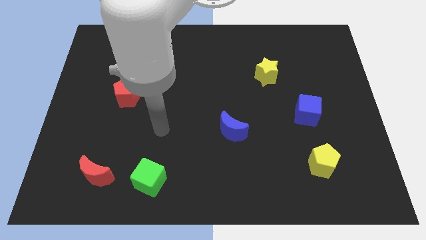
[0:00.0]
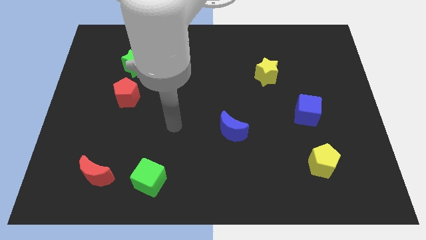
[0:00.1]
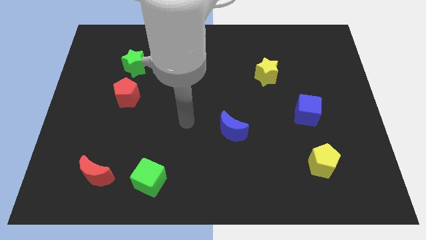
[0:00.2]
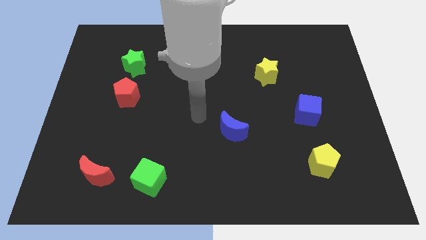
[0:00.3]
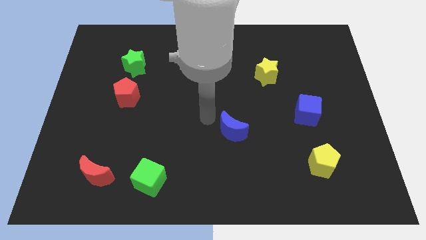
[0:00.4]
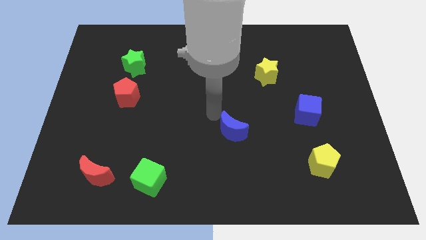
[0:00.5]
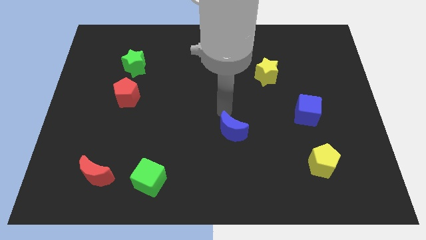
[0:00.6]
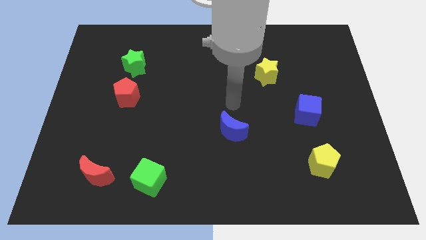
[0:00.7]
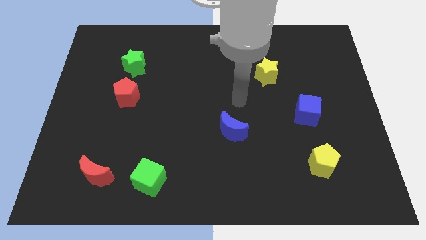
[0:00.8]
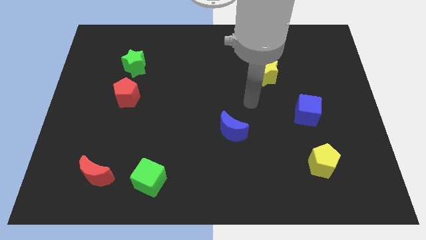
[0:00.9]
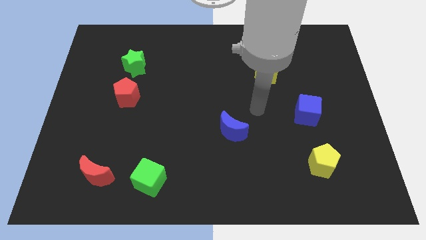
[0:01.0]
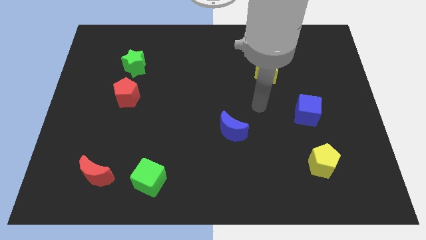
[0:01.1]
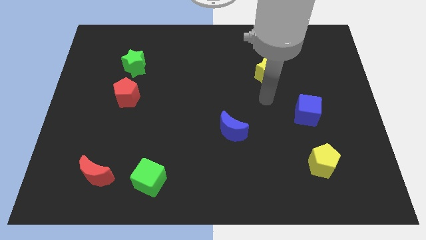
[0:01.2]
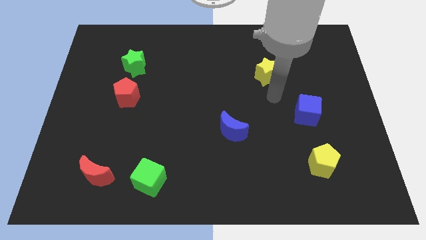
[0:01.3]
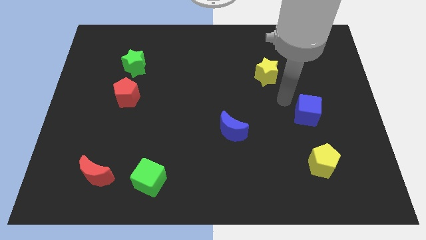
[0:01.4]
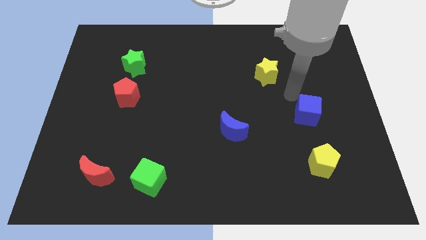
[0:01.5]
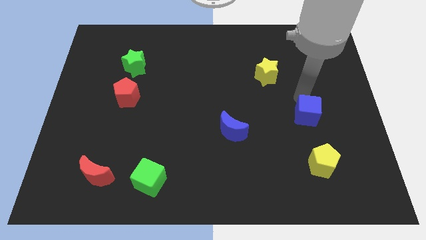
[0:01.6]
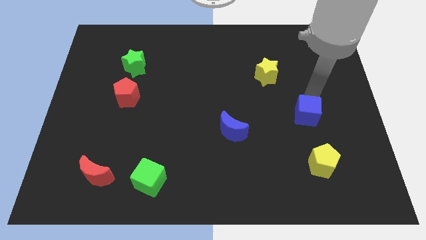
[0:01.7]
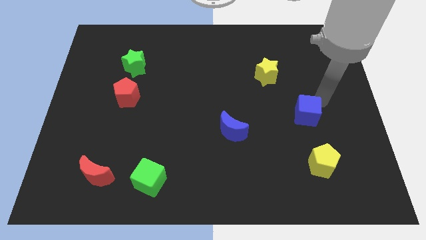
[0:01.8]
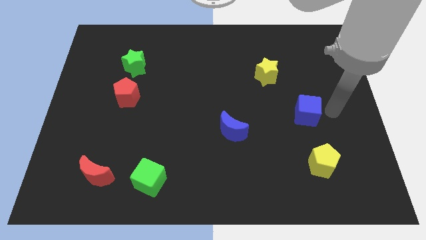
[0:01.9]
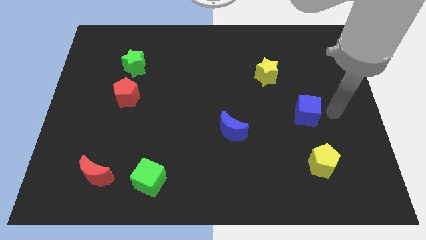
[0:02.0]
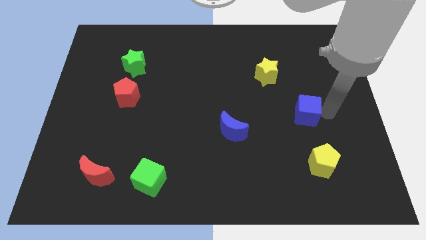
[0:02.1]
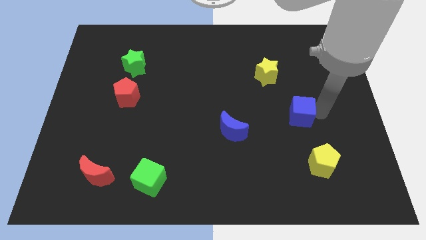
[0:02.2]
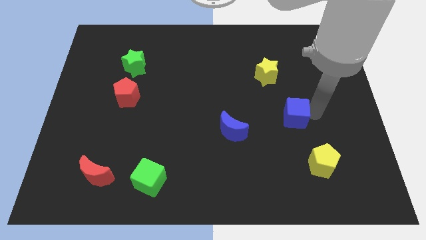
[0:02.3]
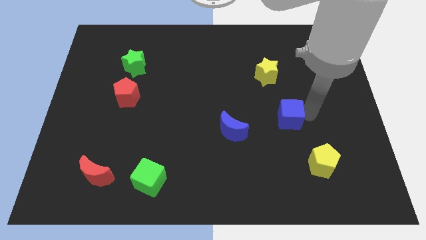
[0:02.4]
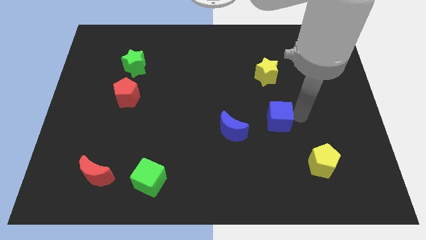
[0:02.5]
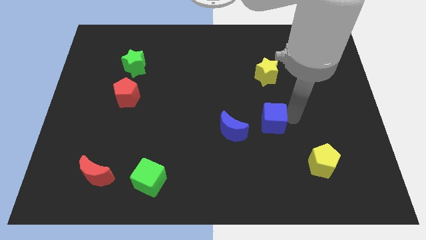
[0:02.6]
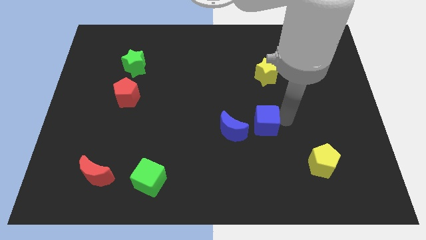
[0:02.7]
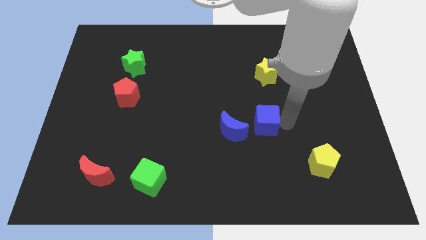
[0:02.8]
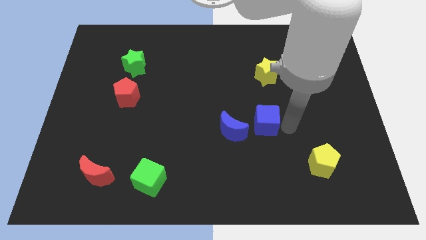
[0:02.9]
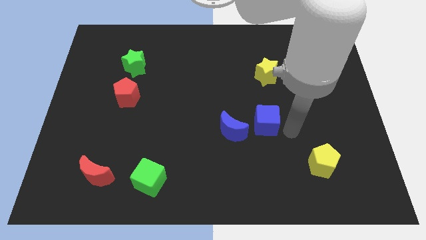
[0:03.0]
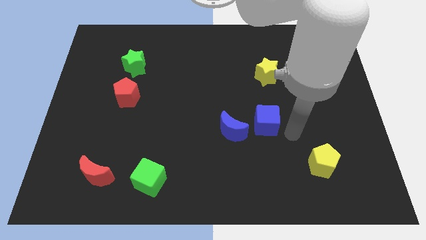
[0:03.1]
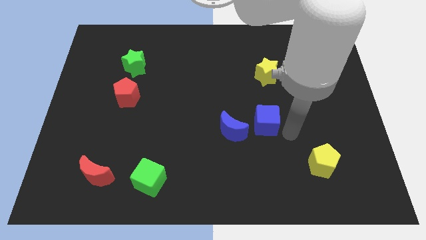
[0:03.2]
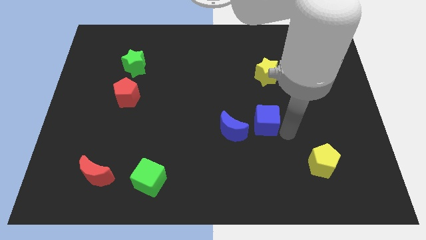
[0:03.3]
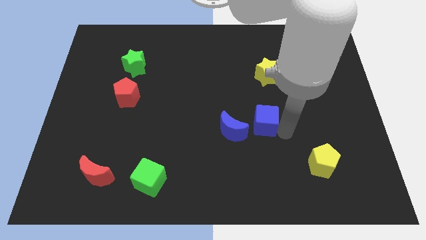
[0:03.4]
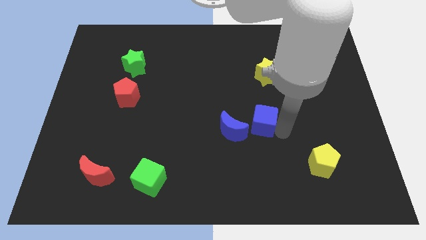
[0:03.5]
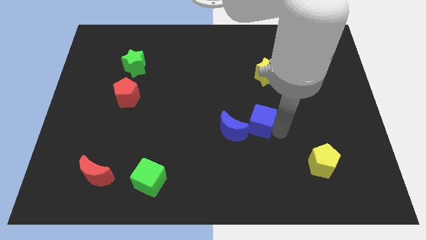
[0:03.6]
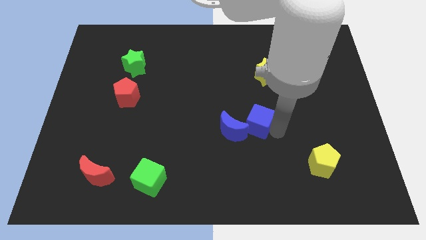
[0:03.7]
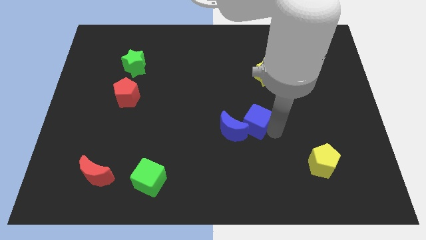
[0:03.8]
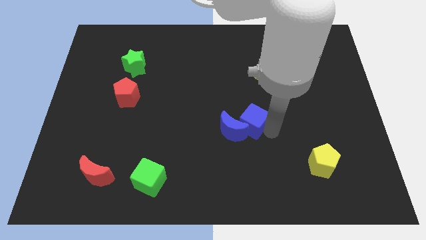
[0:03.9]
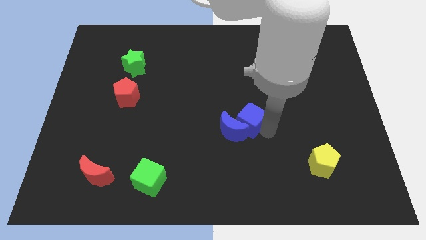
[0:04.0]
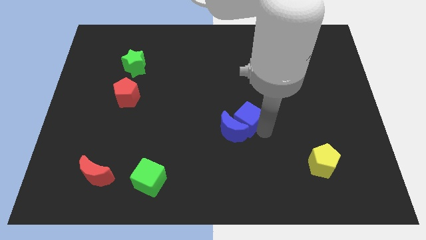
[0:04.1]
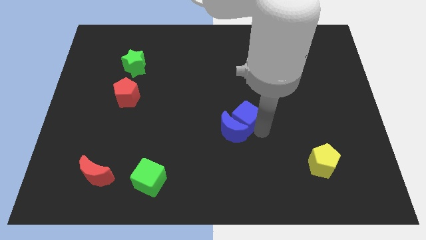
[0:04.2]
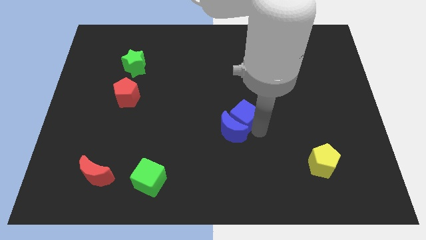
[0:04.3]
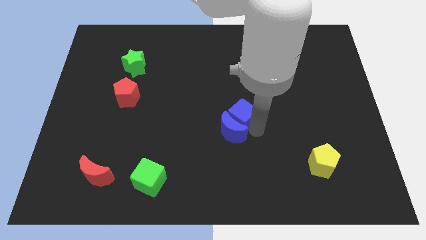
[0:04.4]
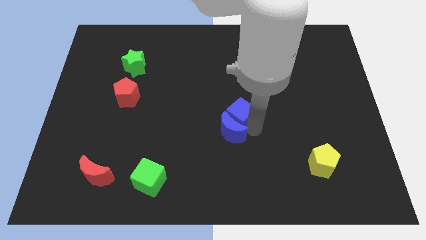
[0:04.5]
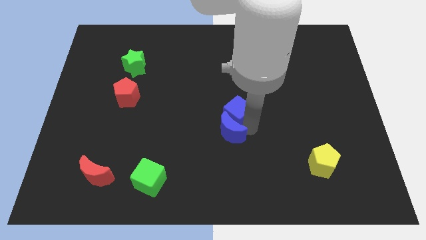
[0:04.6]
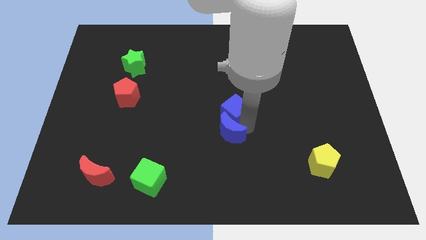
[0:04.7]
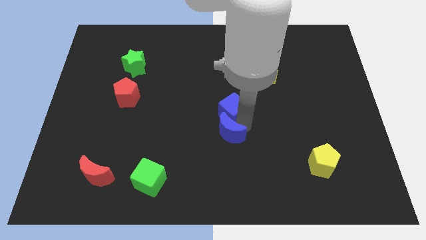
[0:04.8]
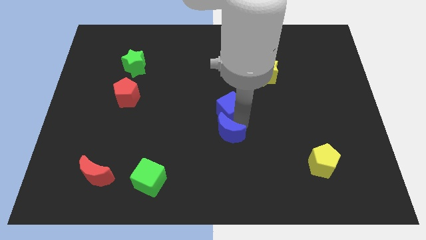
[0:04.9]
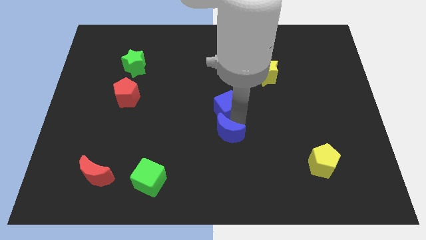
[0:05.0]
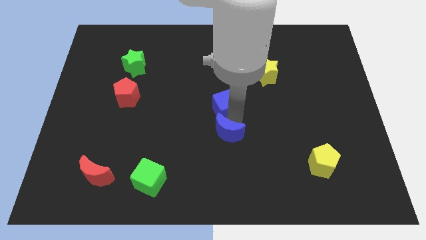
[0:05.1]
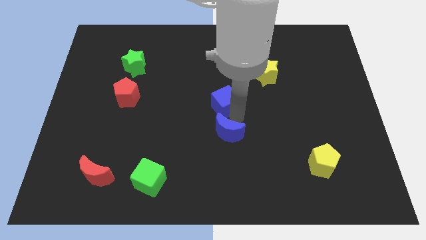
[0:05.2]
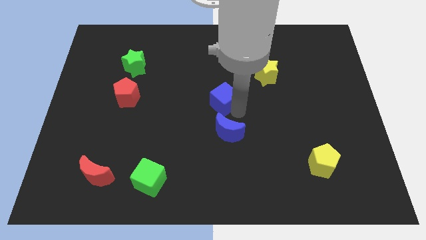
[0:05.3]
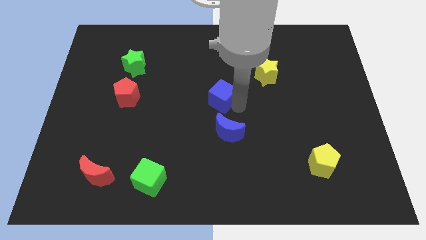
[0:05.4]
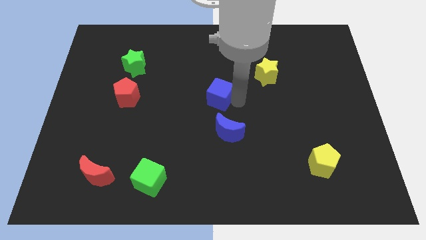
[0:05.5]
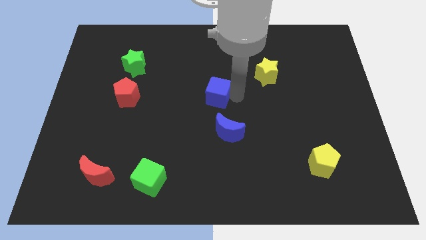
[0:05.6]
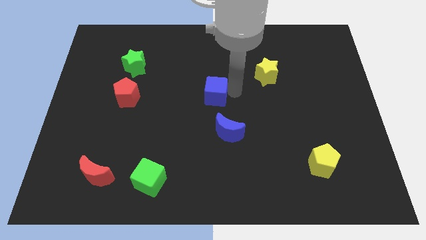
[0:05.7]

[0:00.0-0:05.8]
move the blue cube left

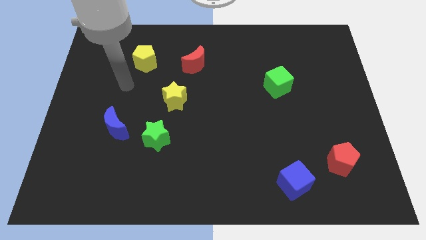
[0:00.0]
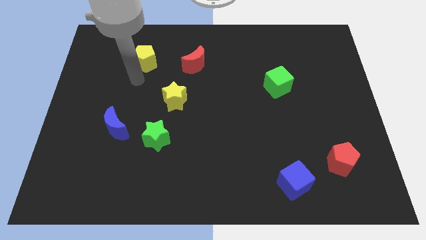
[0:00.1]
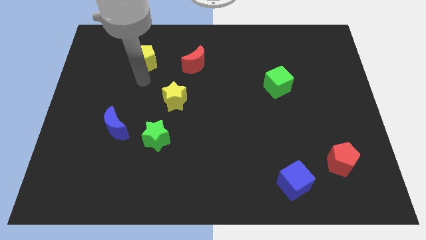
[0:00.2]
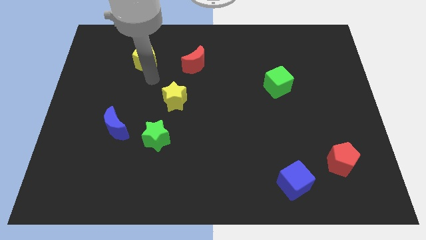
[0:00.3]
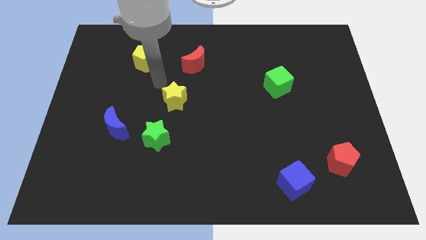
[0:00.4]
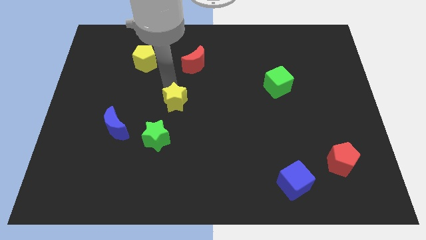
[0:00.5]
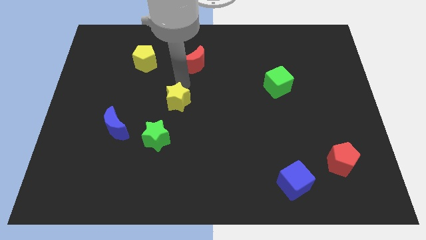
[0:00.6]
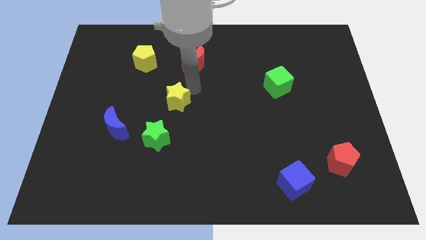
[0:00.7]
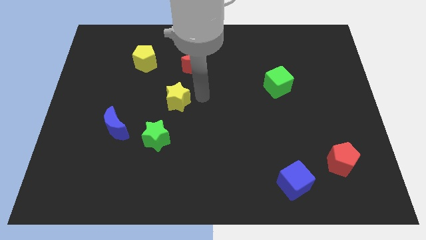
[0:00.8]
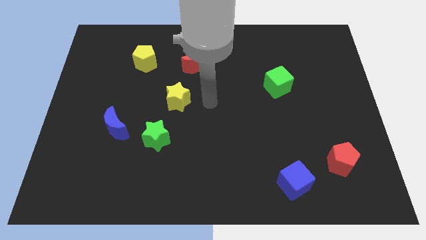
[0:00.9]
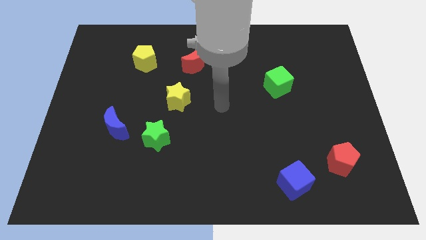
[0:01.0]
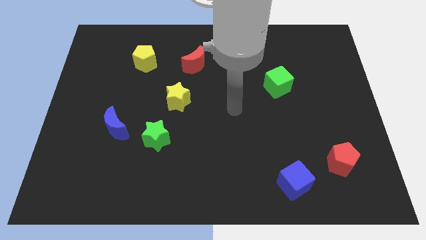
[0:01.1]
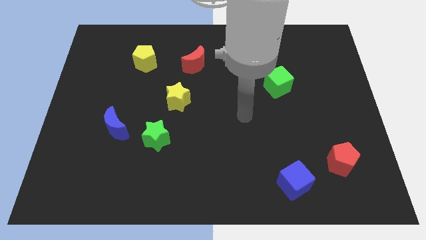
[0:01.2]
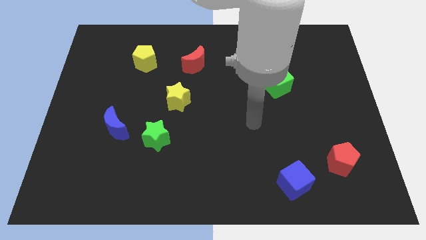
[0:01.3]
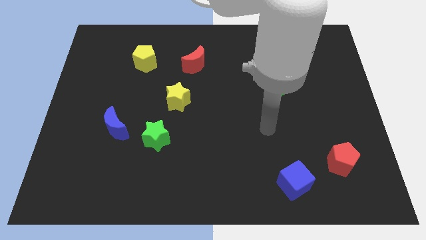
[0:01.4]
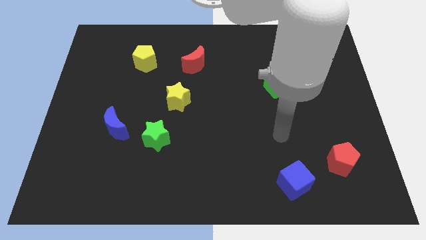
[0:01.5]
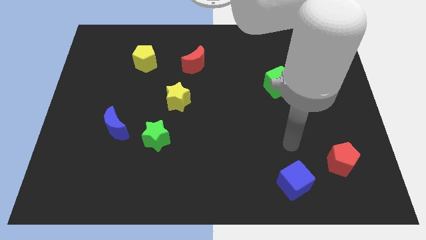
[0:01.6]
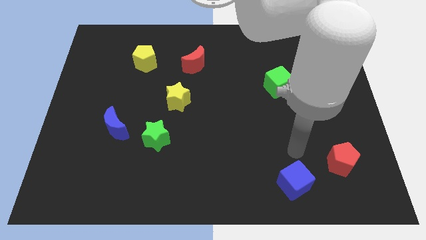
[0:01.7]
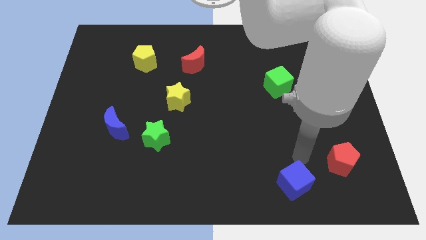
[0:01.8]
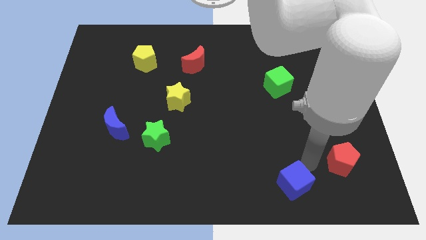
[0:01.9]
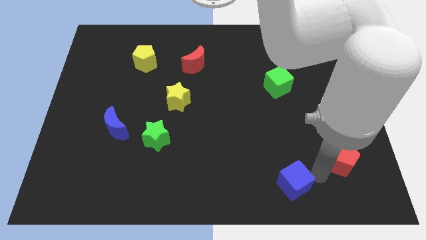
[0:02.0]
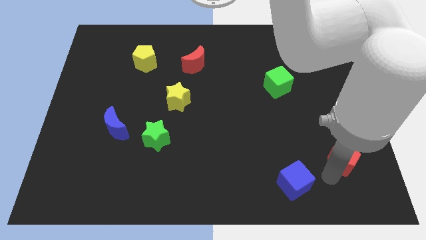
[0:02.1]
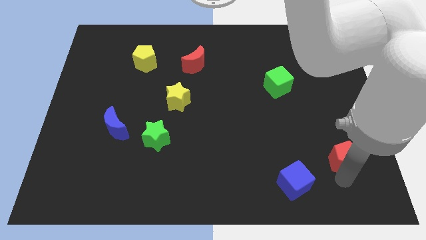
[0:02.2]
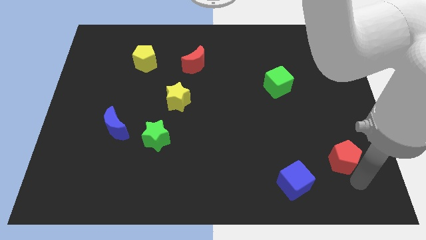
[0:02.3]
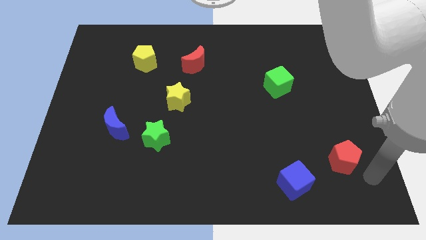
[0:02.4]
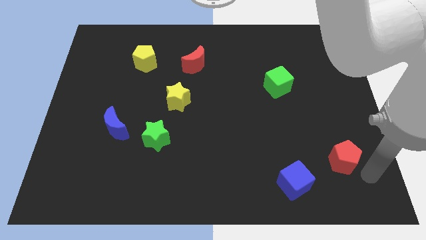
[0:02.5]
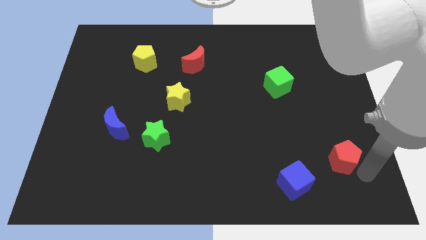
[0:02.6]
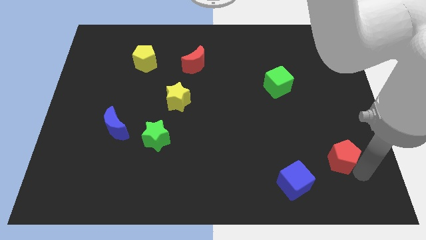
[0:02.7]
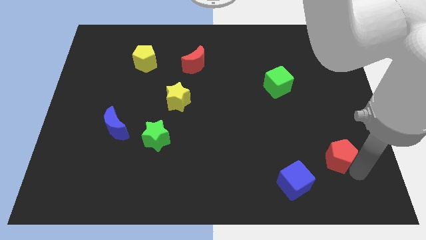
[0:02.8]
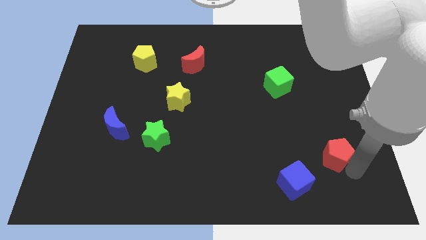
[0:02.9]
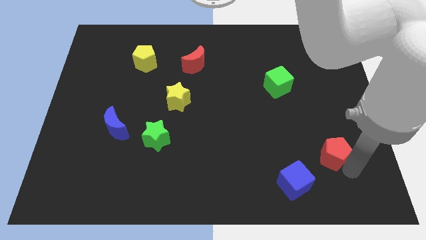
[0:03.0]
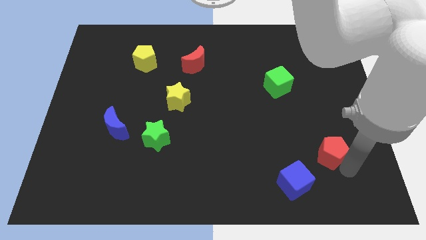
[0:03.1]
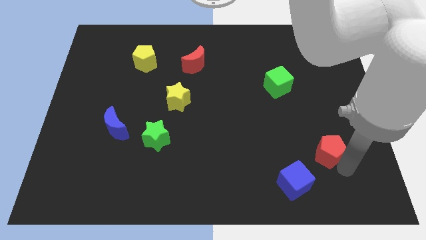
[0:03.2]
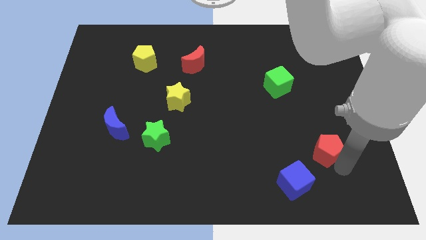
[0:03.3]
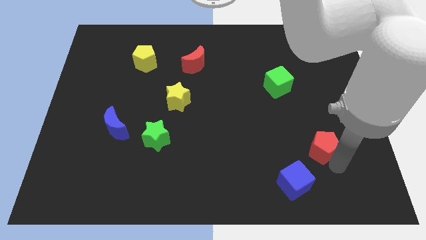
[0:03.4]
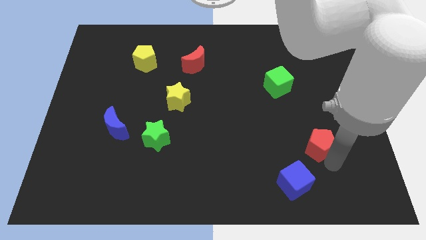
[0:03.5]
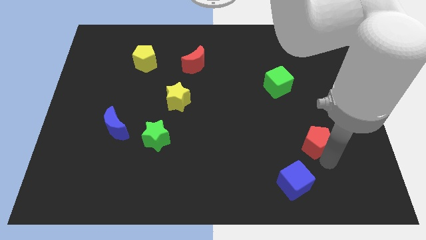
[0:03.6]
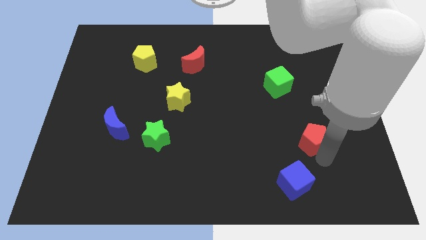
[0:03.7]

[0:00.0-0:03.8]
slightly slide the red pentagon upwards and to the left diagonally
